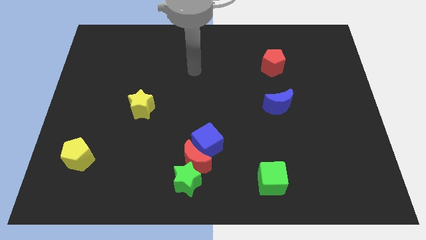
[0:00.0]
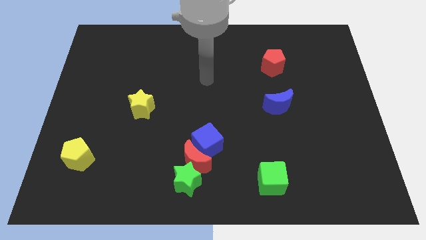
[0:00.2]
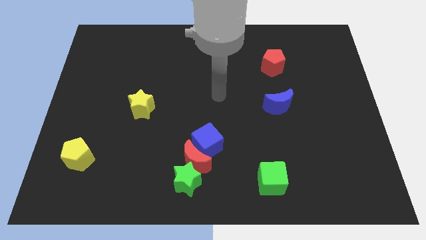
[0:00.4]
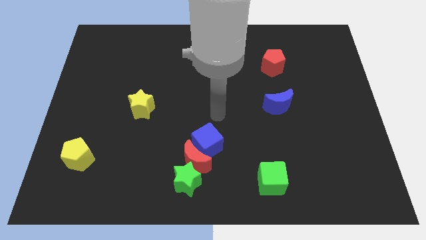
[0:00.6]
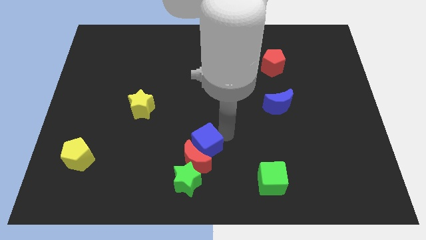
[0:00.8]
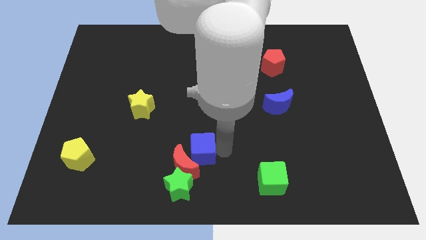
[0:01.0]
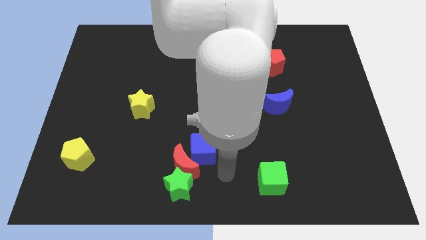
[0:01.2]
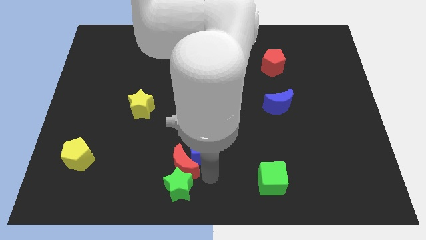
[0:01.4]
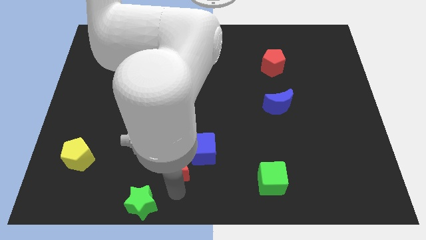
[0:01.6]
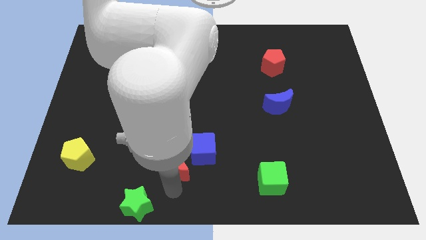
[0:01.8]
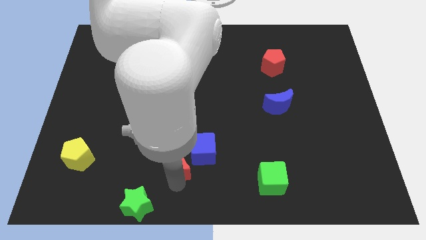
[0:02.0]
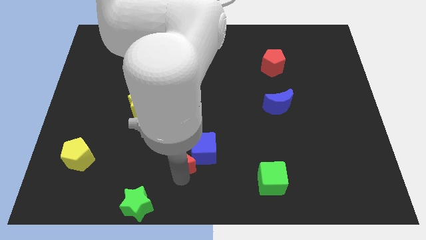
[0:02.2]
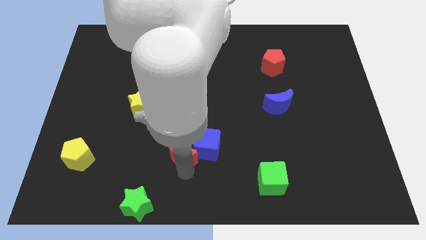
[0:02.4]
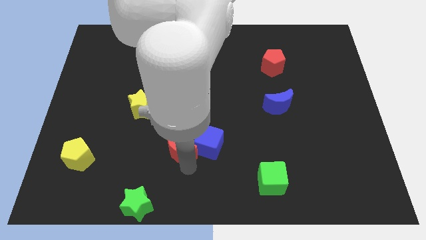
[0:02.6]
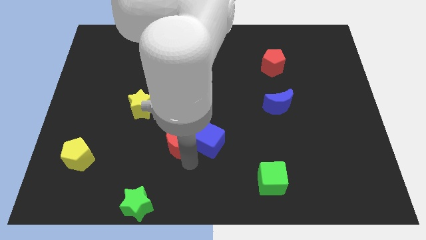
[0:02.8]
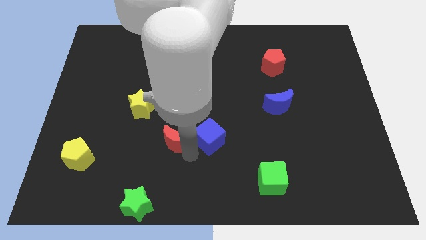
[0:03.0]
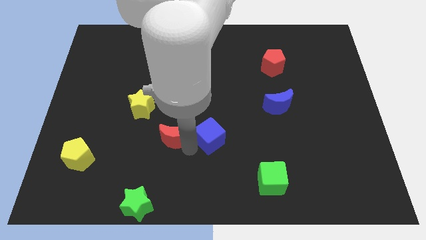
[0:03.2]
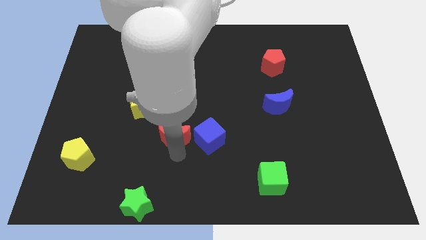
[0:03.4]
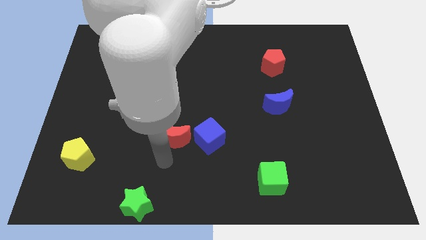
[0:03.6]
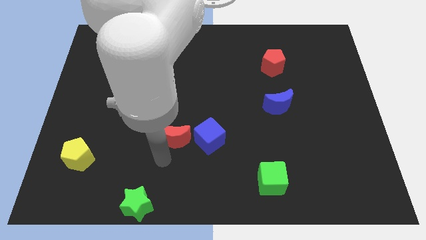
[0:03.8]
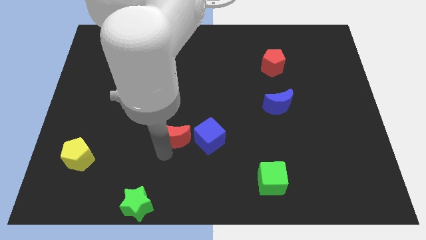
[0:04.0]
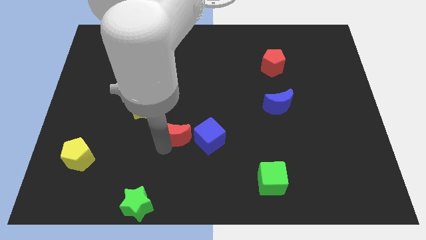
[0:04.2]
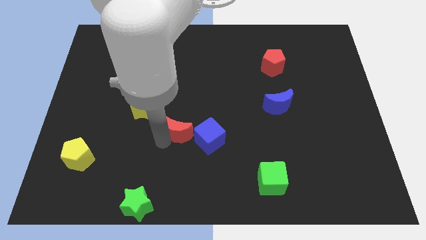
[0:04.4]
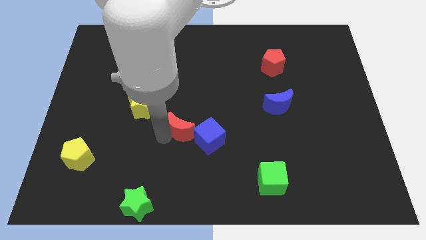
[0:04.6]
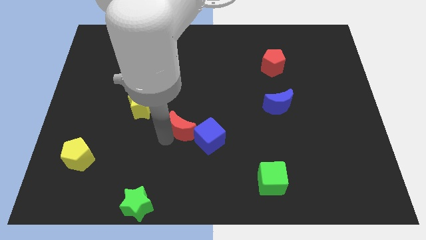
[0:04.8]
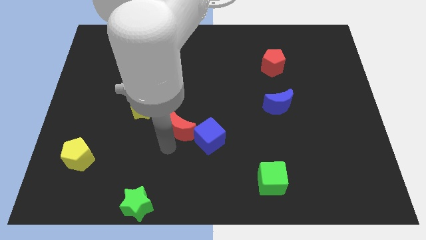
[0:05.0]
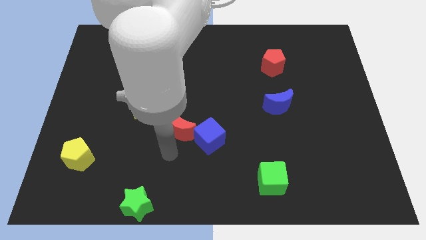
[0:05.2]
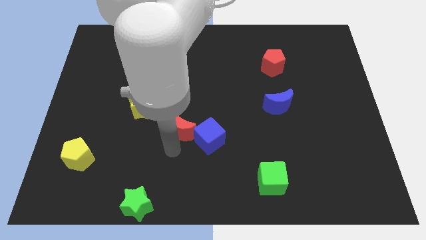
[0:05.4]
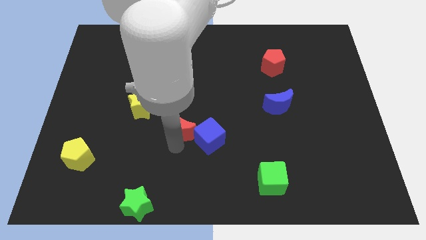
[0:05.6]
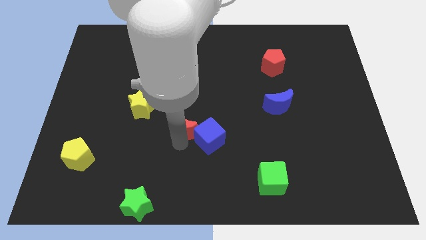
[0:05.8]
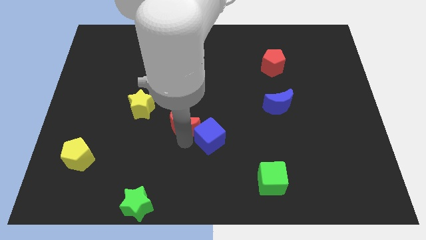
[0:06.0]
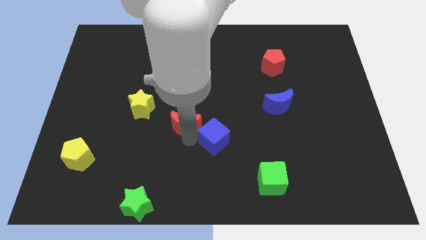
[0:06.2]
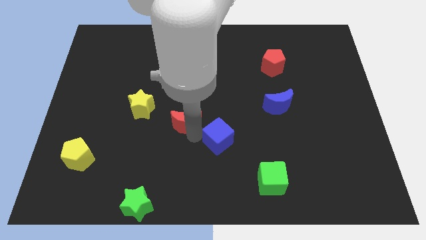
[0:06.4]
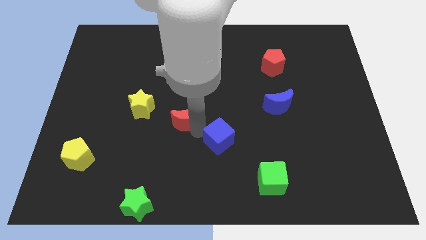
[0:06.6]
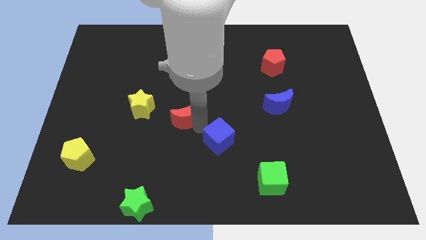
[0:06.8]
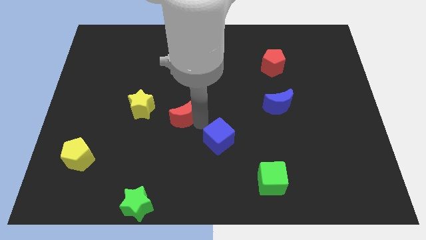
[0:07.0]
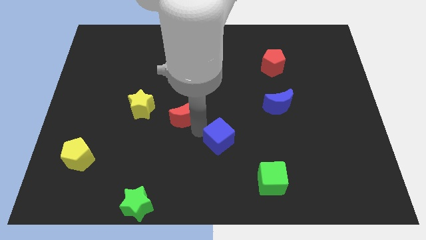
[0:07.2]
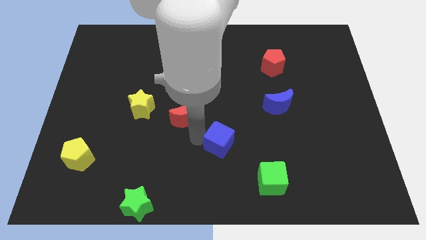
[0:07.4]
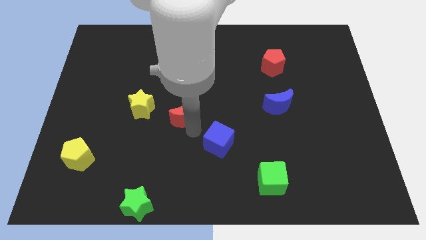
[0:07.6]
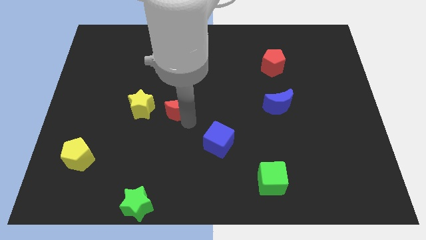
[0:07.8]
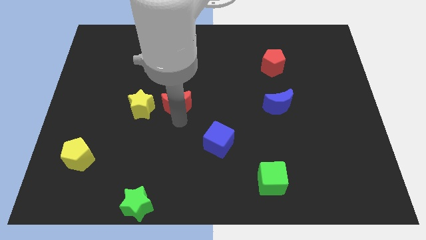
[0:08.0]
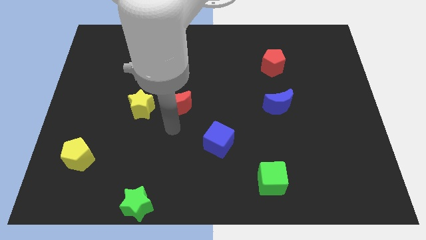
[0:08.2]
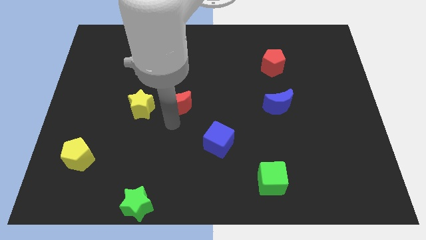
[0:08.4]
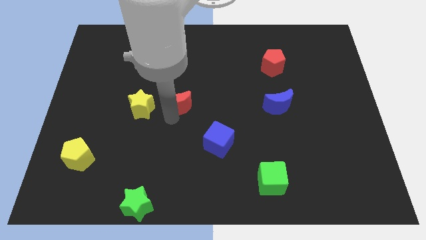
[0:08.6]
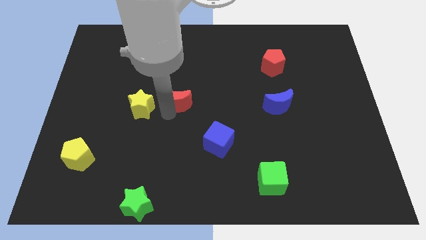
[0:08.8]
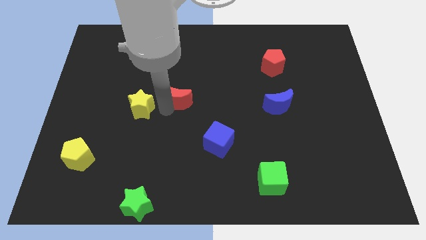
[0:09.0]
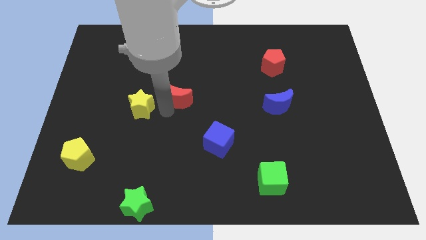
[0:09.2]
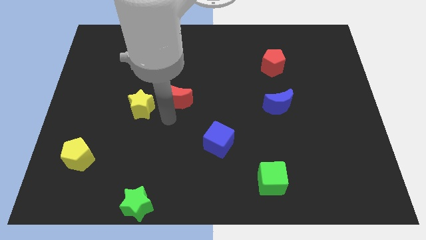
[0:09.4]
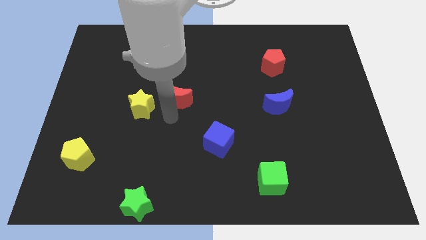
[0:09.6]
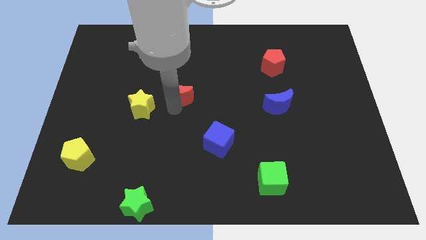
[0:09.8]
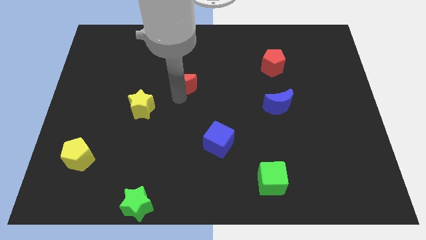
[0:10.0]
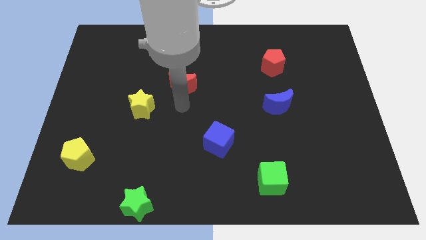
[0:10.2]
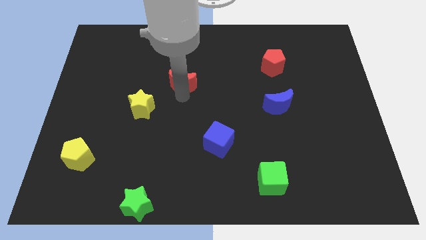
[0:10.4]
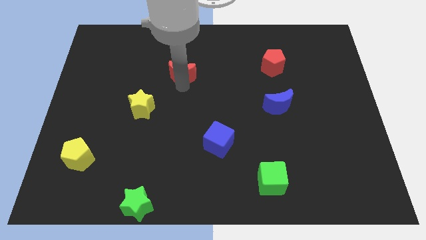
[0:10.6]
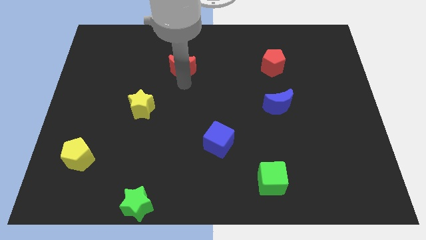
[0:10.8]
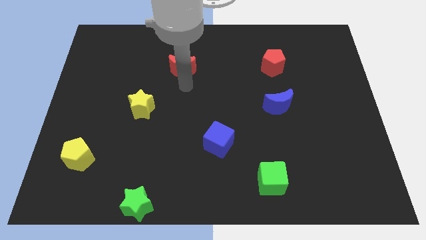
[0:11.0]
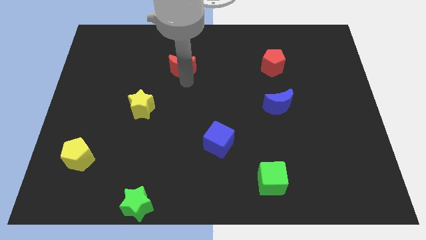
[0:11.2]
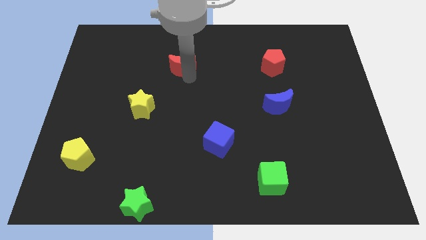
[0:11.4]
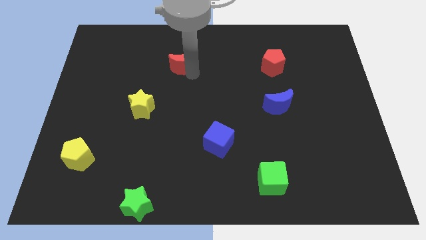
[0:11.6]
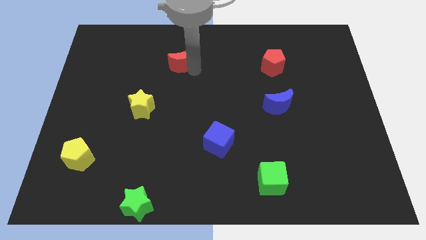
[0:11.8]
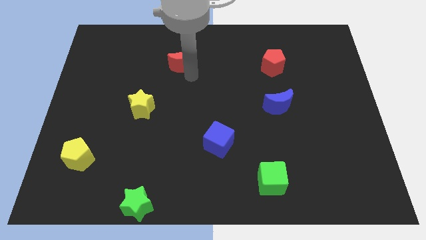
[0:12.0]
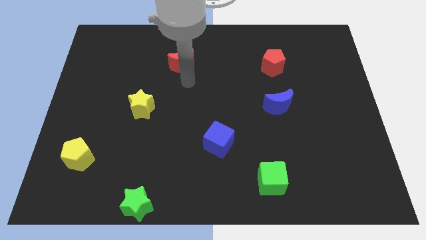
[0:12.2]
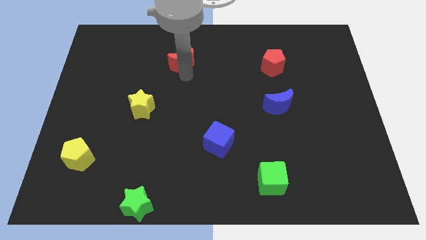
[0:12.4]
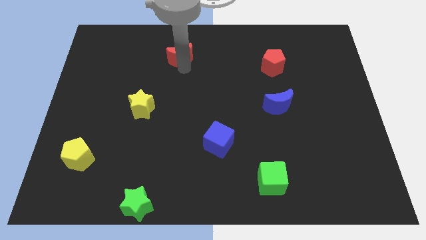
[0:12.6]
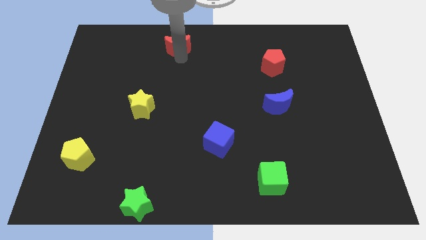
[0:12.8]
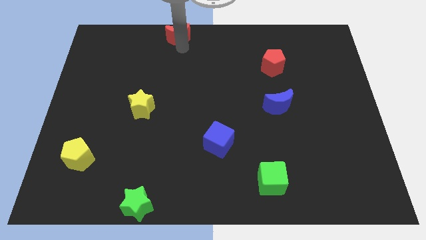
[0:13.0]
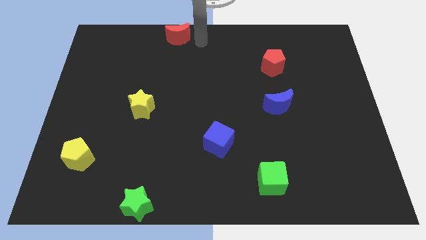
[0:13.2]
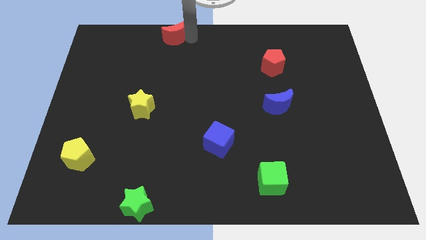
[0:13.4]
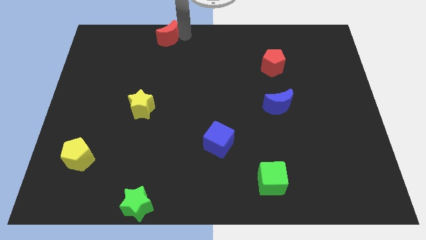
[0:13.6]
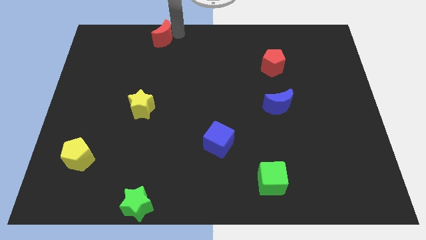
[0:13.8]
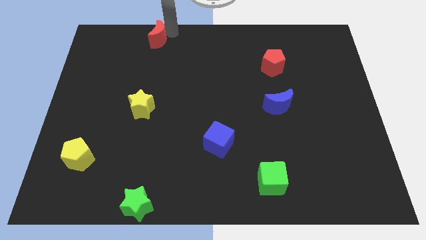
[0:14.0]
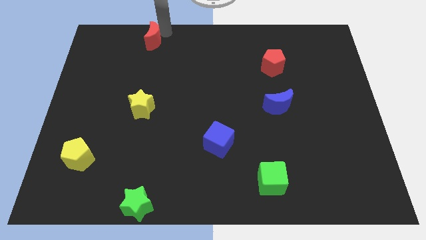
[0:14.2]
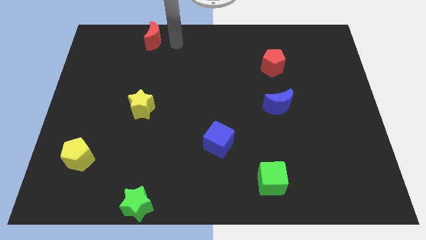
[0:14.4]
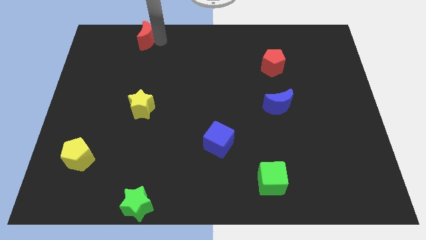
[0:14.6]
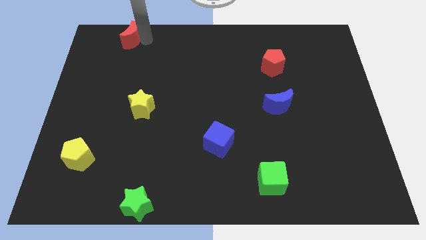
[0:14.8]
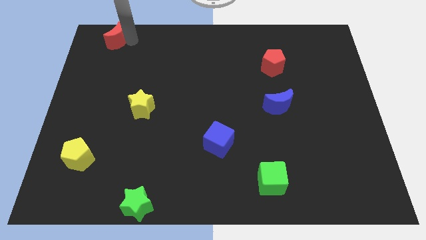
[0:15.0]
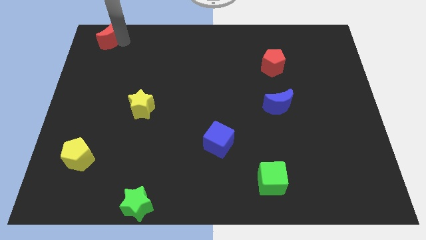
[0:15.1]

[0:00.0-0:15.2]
slide the red moon to the top left corner
